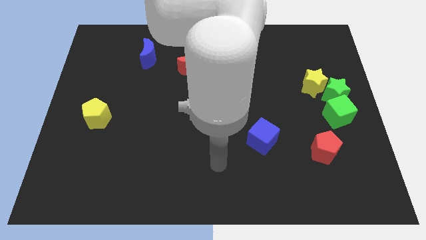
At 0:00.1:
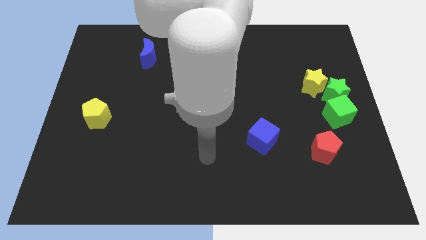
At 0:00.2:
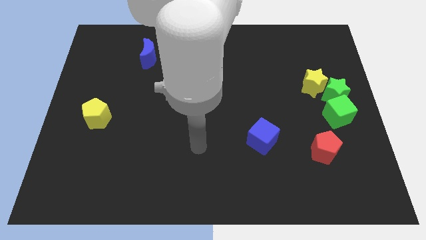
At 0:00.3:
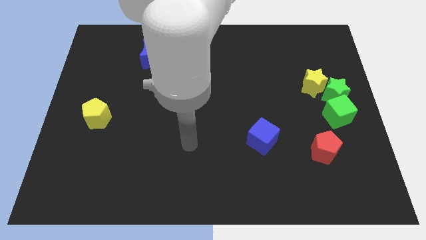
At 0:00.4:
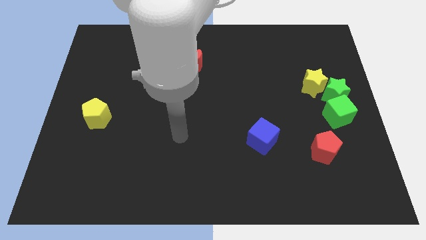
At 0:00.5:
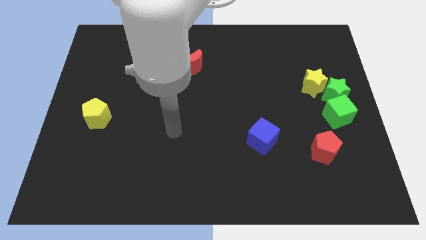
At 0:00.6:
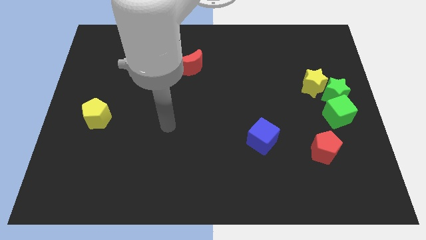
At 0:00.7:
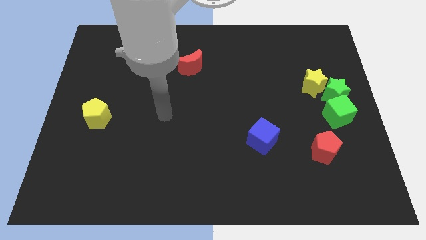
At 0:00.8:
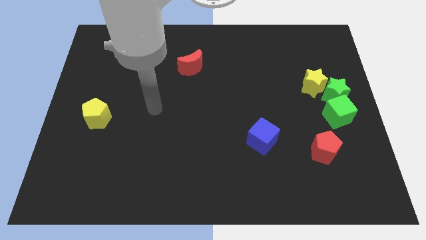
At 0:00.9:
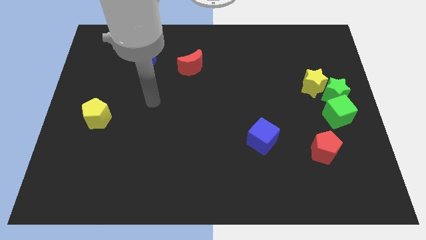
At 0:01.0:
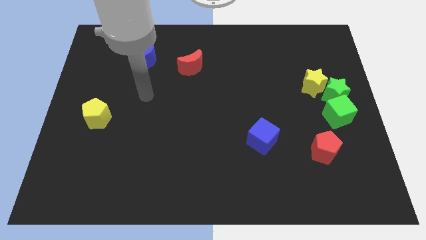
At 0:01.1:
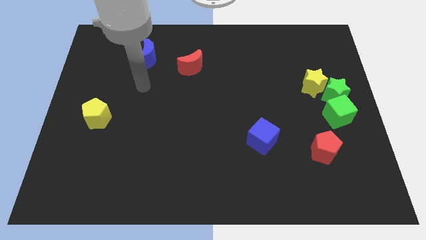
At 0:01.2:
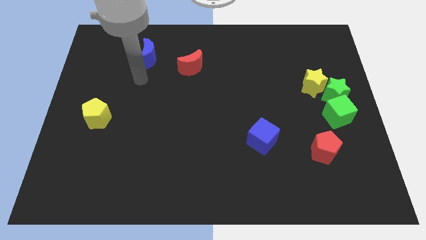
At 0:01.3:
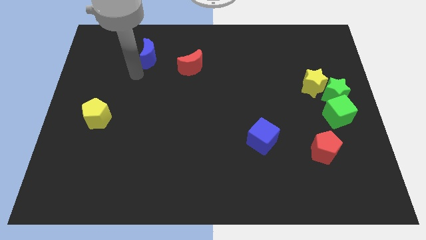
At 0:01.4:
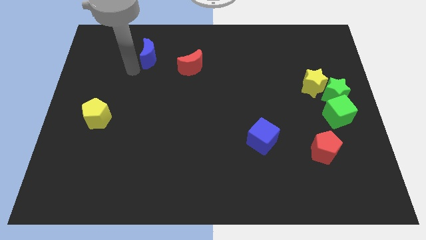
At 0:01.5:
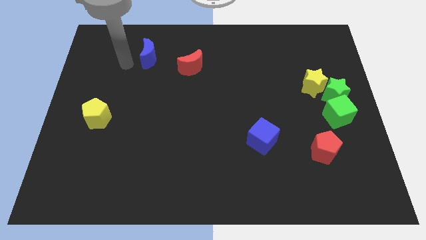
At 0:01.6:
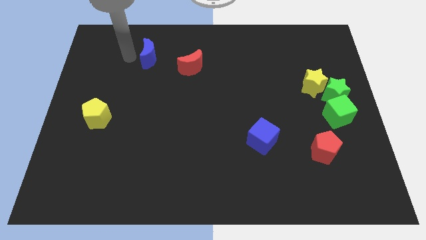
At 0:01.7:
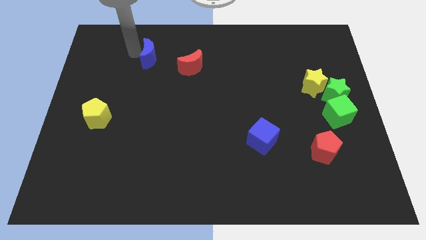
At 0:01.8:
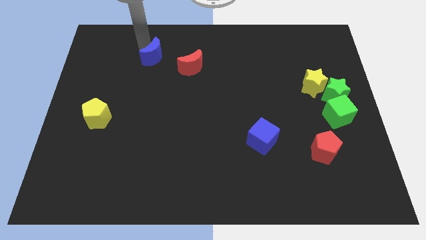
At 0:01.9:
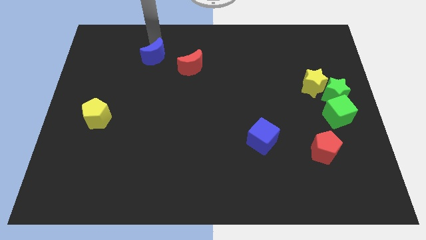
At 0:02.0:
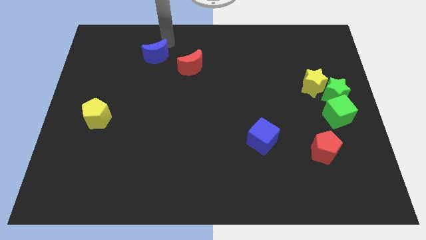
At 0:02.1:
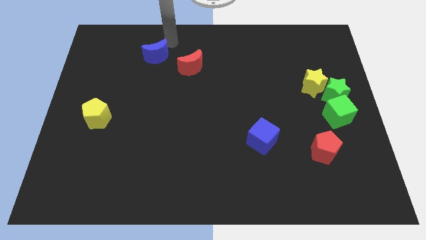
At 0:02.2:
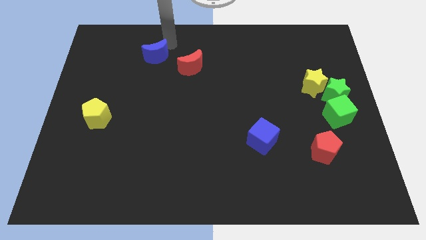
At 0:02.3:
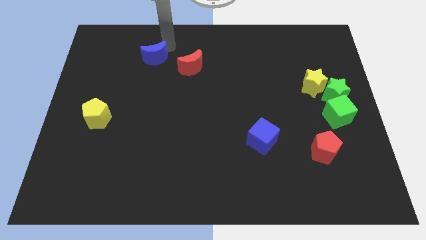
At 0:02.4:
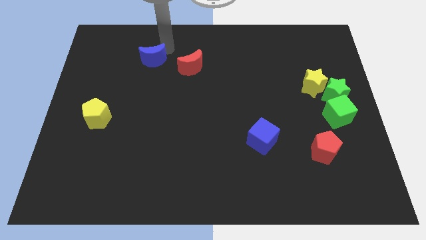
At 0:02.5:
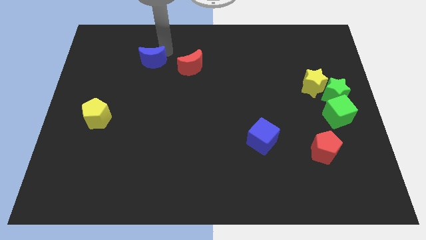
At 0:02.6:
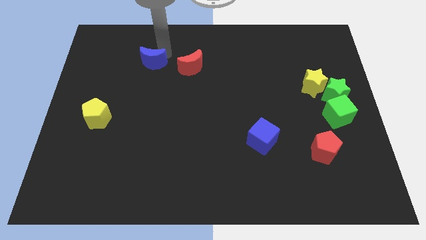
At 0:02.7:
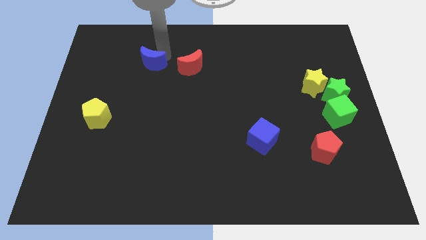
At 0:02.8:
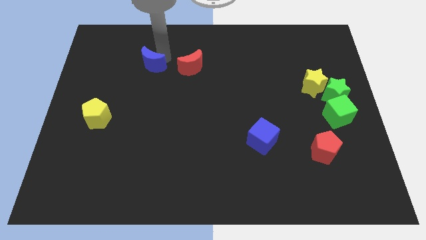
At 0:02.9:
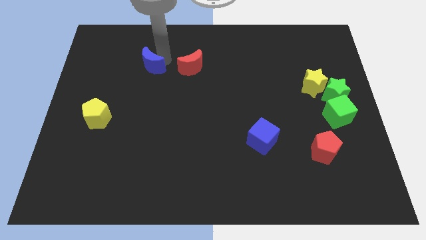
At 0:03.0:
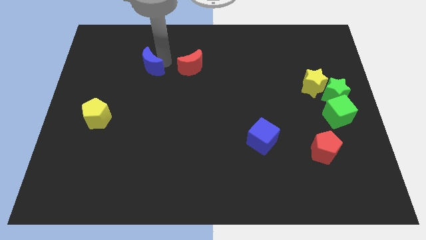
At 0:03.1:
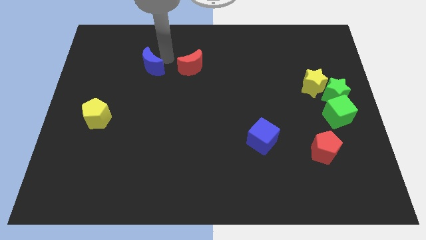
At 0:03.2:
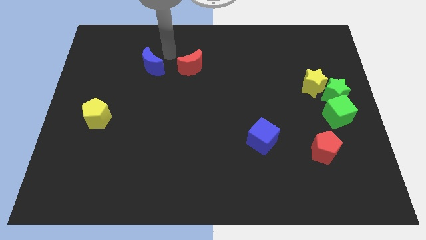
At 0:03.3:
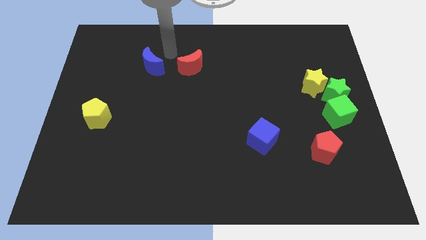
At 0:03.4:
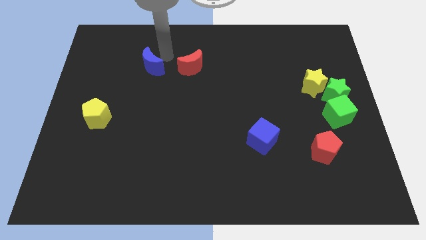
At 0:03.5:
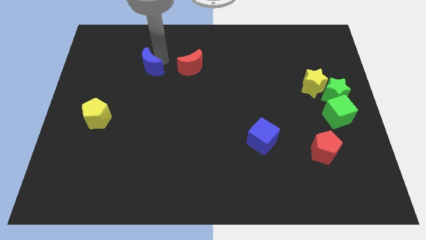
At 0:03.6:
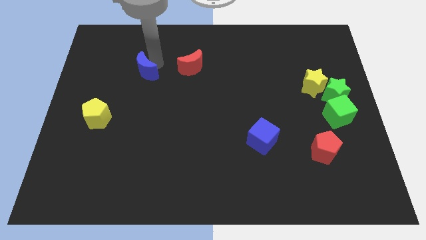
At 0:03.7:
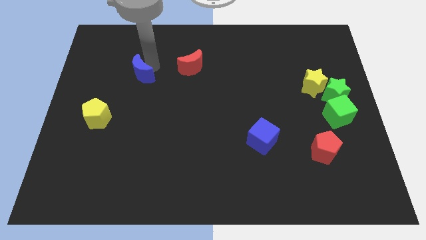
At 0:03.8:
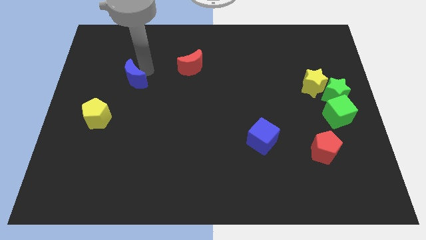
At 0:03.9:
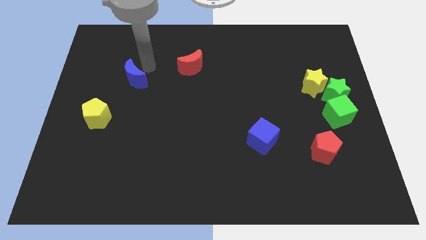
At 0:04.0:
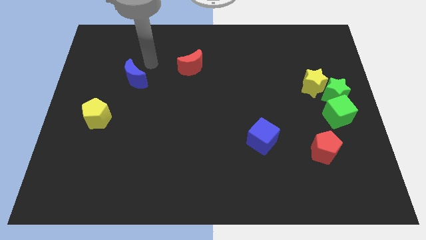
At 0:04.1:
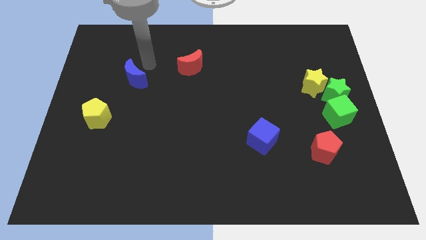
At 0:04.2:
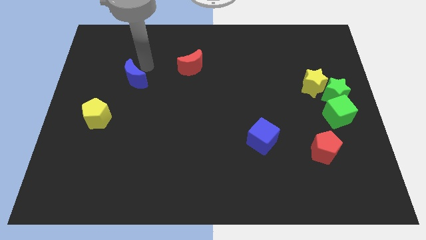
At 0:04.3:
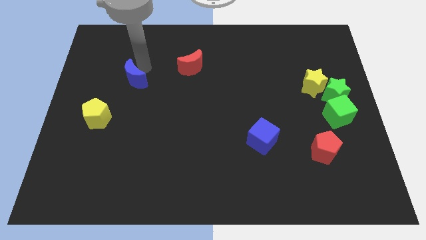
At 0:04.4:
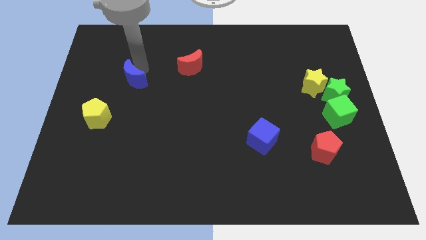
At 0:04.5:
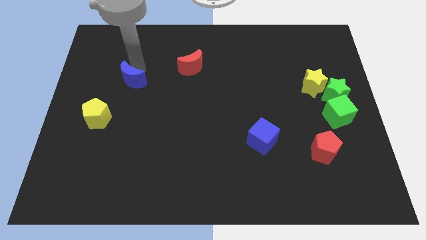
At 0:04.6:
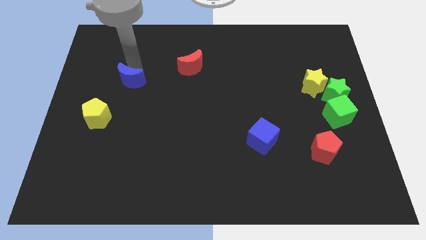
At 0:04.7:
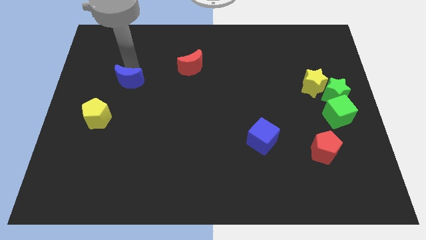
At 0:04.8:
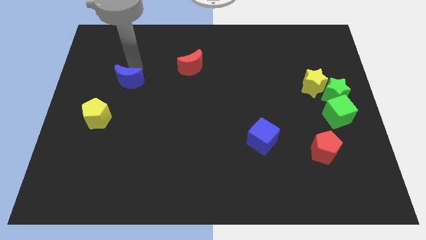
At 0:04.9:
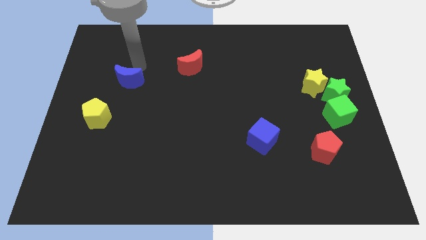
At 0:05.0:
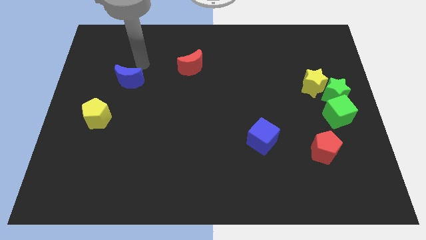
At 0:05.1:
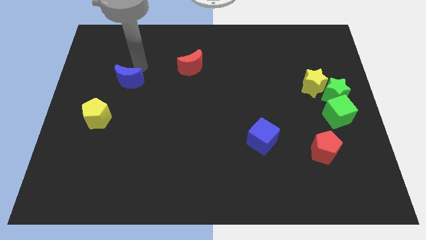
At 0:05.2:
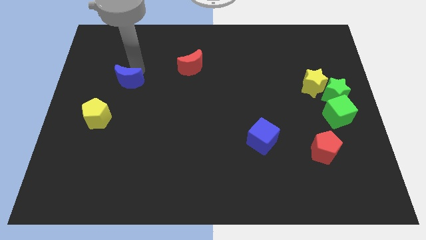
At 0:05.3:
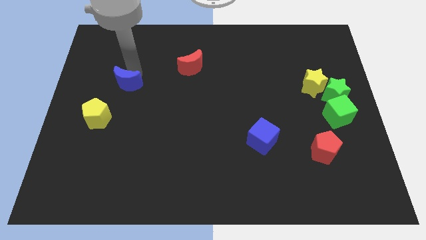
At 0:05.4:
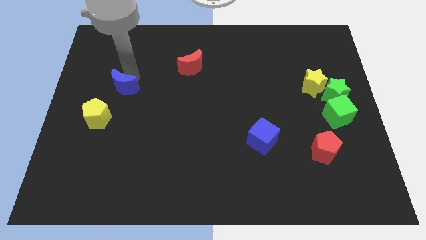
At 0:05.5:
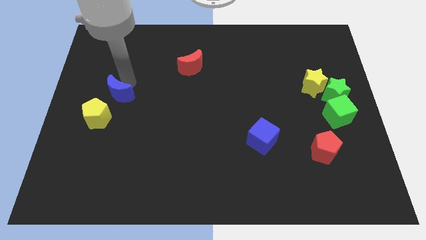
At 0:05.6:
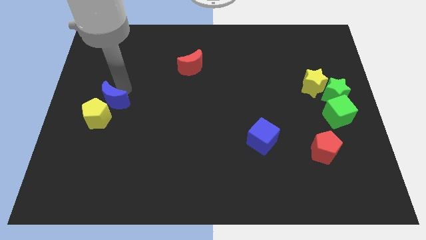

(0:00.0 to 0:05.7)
push the blue moon next to the yellow pentagon

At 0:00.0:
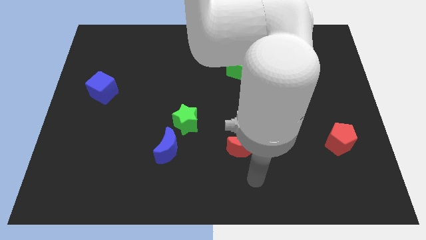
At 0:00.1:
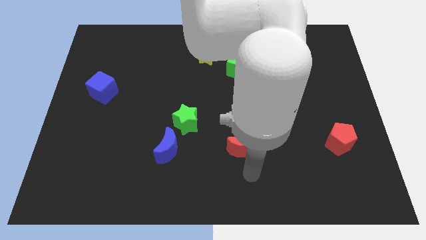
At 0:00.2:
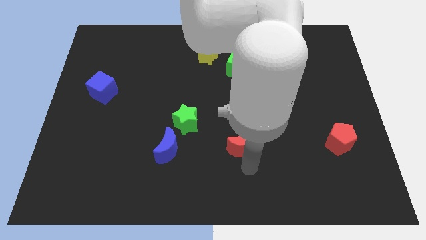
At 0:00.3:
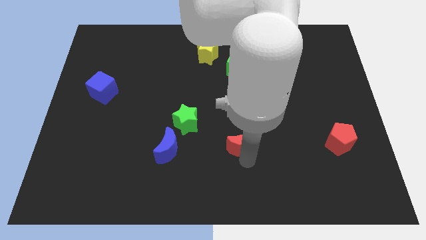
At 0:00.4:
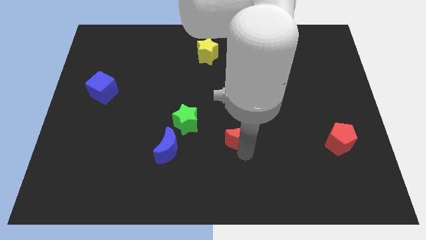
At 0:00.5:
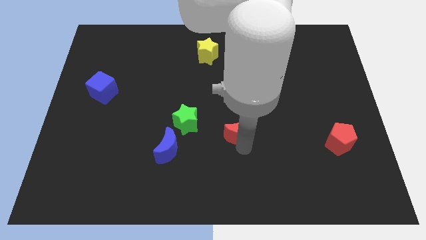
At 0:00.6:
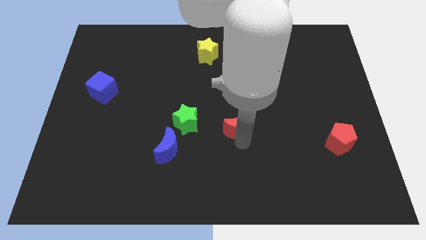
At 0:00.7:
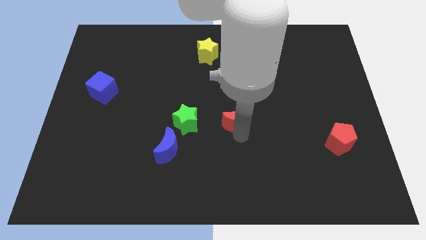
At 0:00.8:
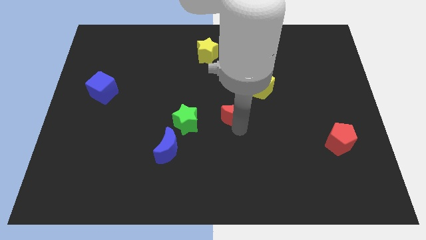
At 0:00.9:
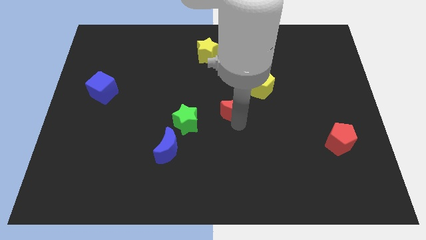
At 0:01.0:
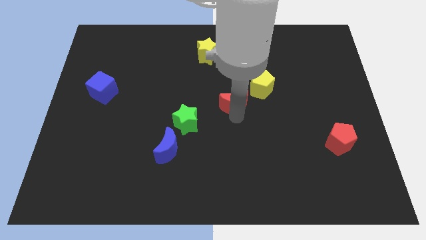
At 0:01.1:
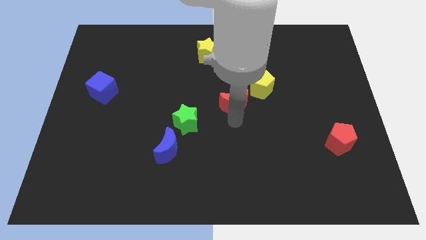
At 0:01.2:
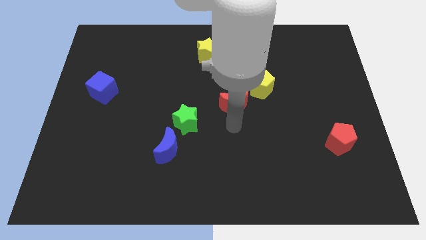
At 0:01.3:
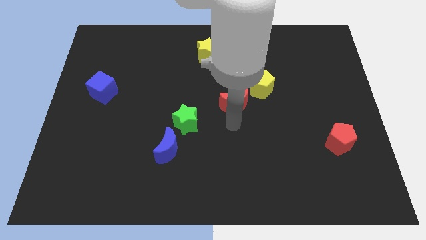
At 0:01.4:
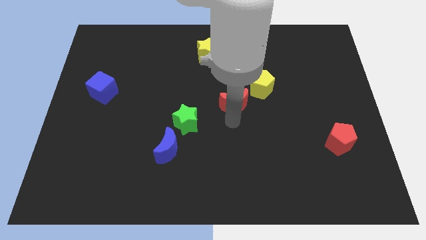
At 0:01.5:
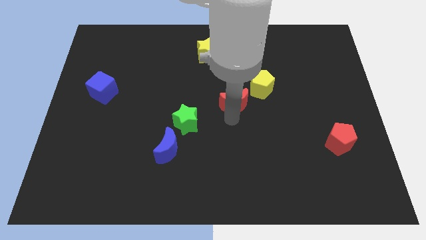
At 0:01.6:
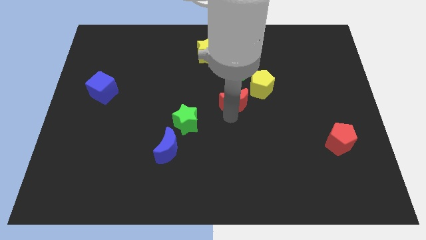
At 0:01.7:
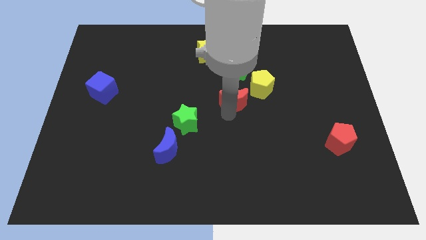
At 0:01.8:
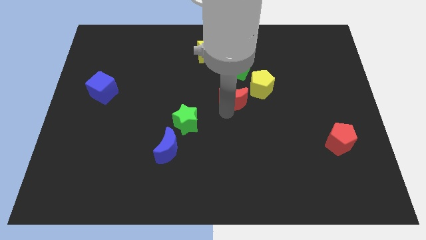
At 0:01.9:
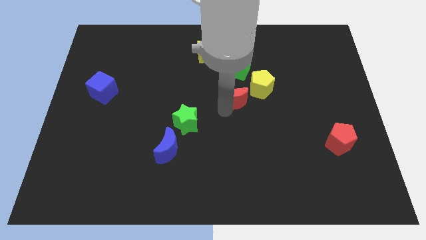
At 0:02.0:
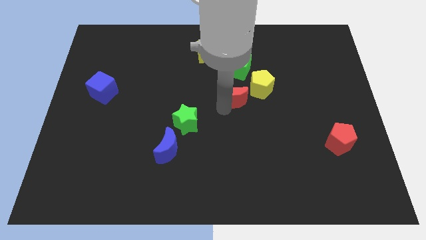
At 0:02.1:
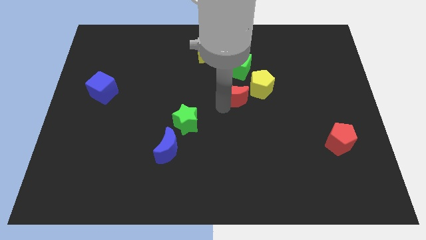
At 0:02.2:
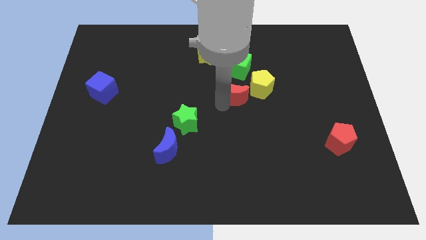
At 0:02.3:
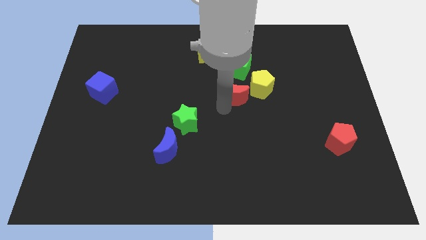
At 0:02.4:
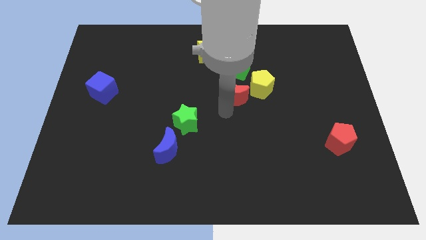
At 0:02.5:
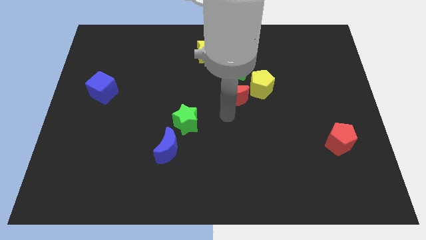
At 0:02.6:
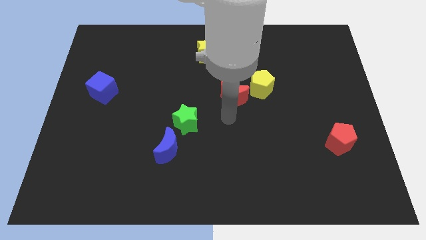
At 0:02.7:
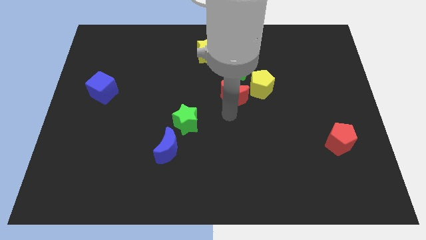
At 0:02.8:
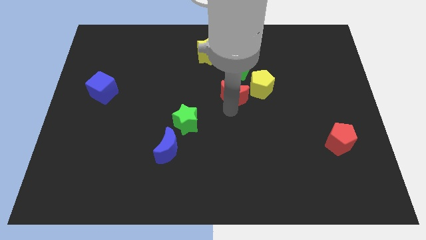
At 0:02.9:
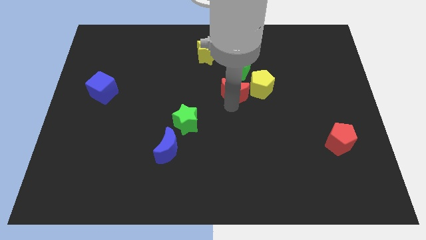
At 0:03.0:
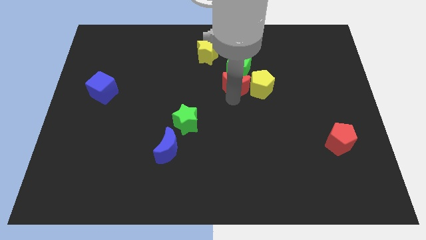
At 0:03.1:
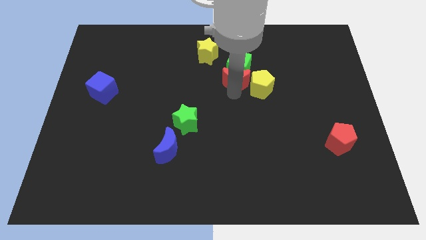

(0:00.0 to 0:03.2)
push the red moon to the green cube
